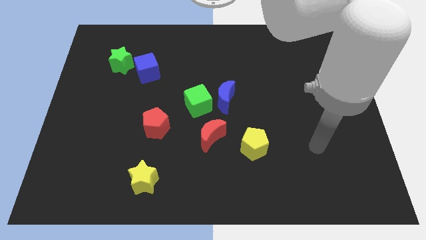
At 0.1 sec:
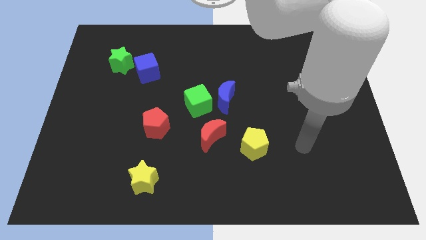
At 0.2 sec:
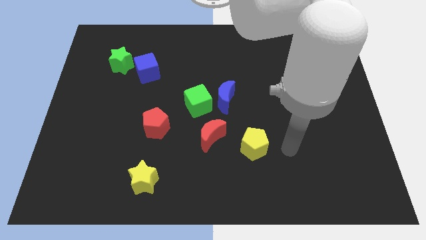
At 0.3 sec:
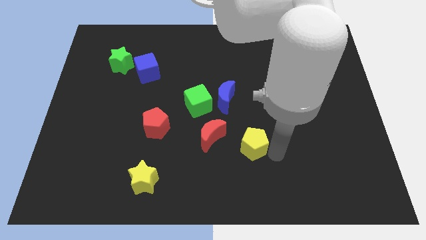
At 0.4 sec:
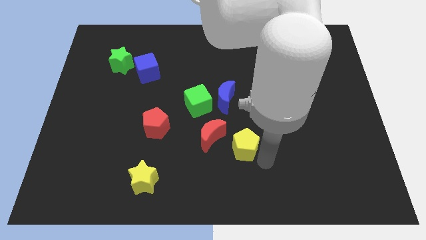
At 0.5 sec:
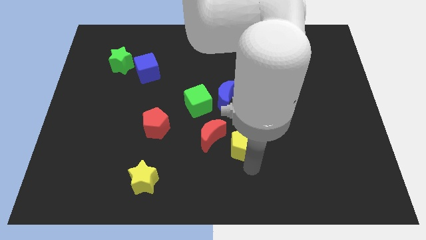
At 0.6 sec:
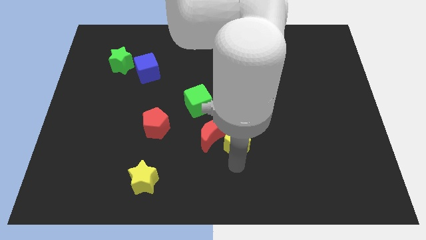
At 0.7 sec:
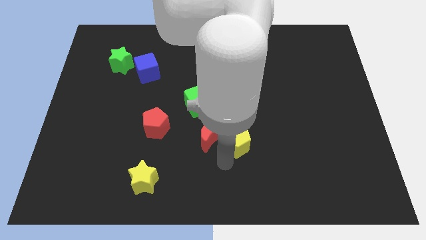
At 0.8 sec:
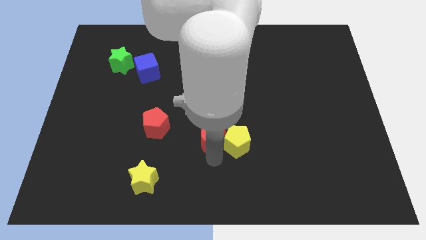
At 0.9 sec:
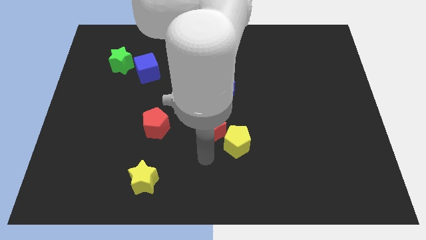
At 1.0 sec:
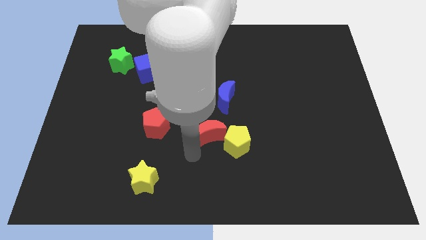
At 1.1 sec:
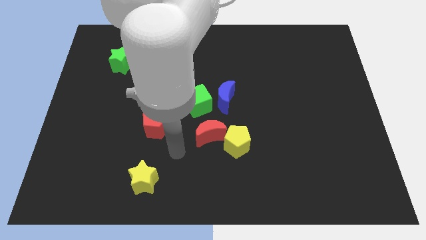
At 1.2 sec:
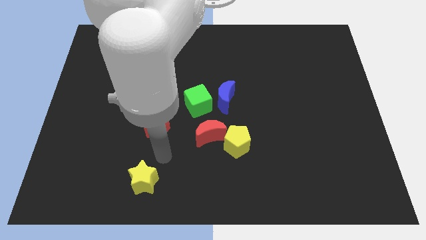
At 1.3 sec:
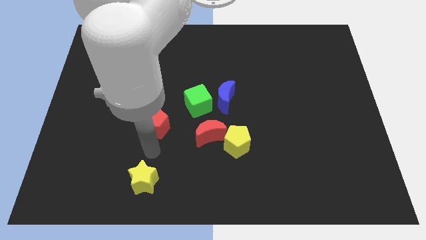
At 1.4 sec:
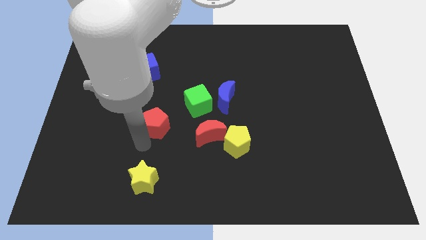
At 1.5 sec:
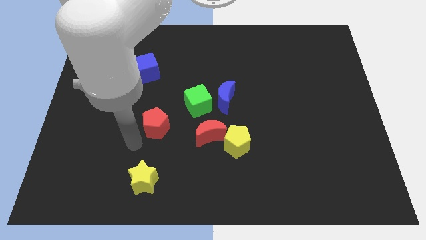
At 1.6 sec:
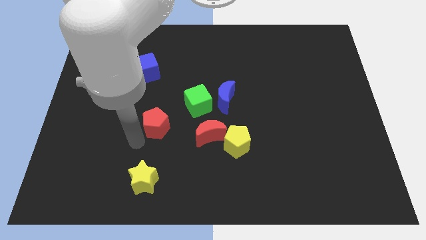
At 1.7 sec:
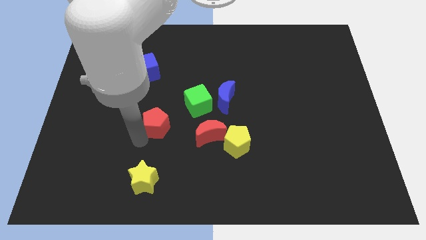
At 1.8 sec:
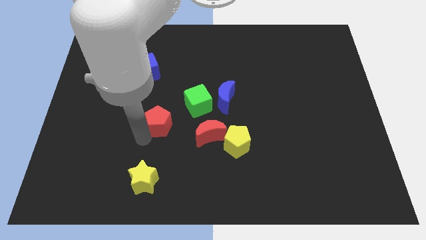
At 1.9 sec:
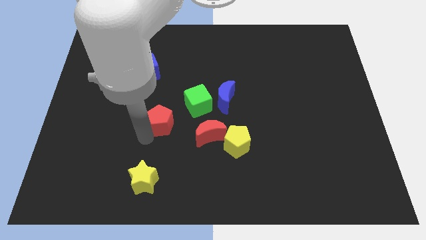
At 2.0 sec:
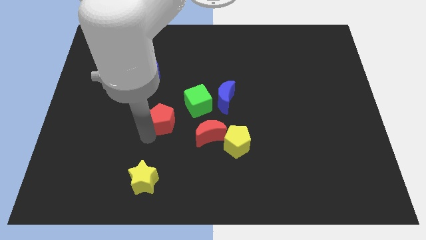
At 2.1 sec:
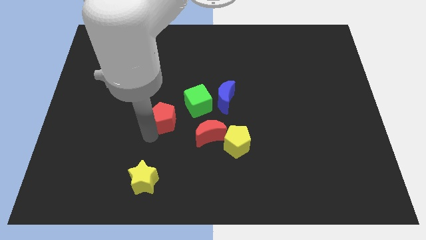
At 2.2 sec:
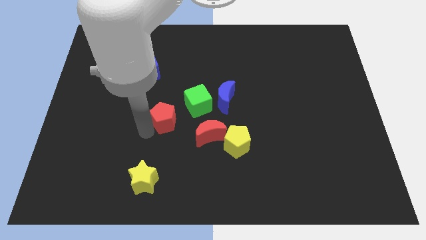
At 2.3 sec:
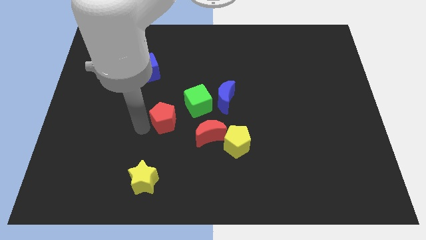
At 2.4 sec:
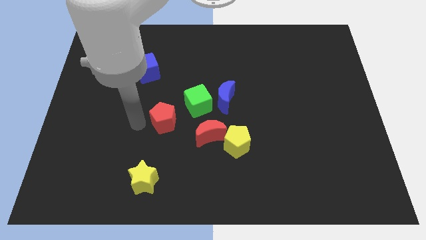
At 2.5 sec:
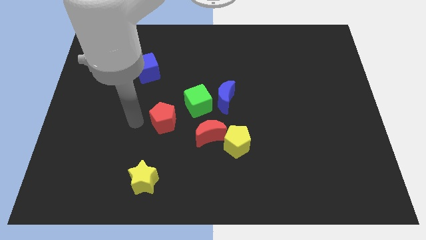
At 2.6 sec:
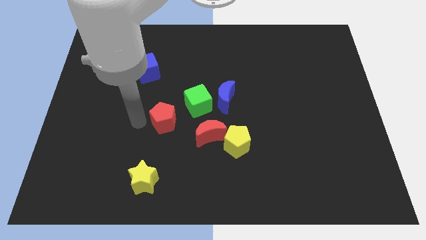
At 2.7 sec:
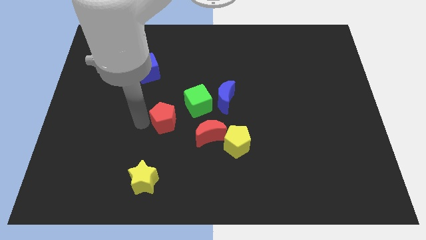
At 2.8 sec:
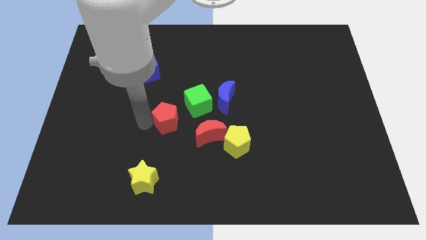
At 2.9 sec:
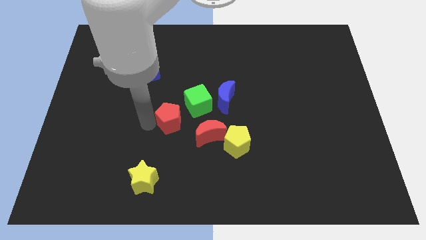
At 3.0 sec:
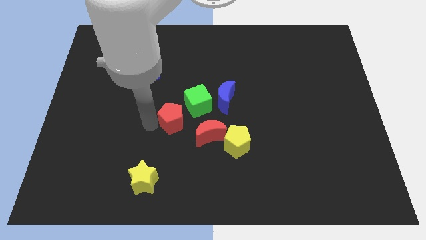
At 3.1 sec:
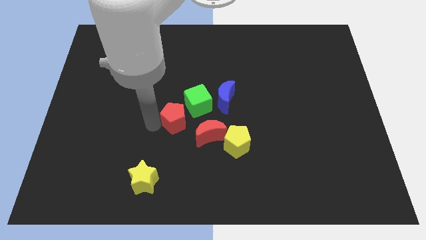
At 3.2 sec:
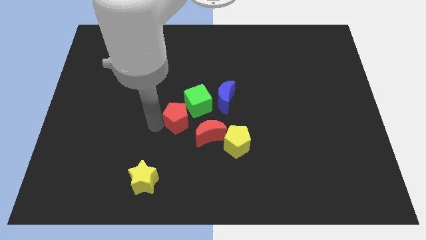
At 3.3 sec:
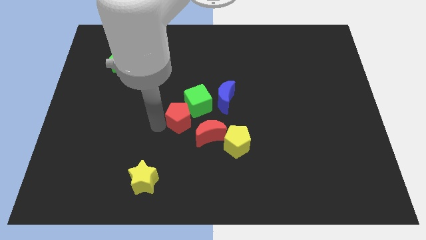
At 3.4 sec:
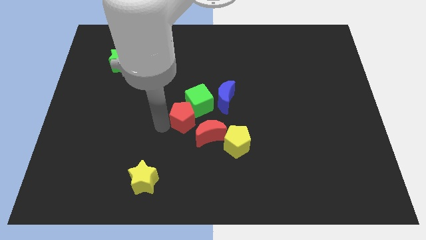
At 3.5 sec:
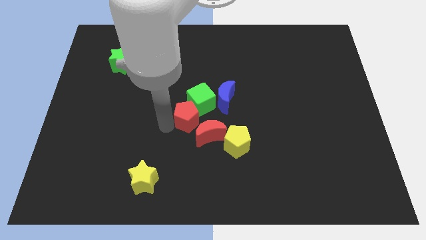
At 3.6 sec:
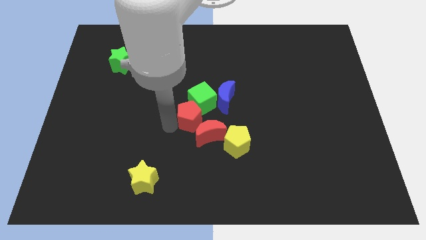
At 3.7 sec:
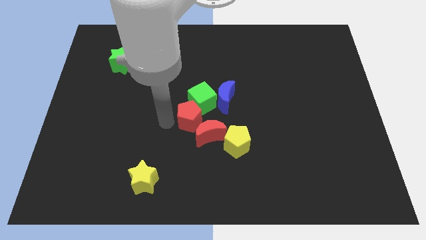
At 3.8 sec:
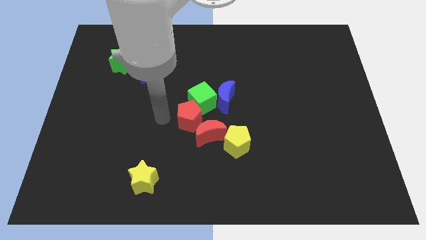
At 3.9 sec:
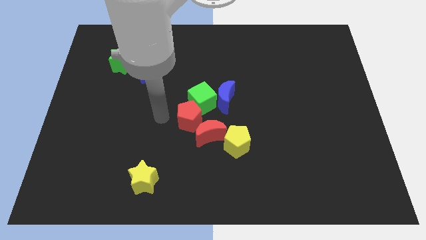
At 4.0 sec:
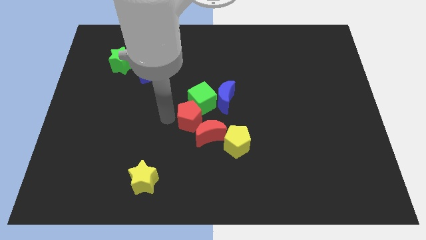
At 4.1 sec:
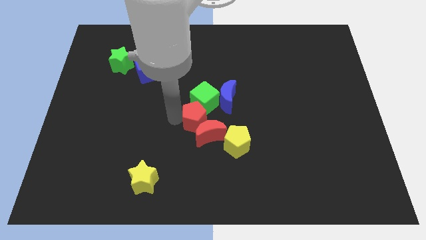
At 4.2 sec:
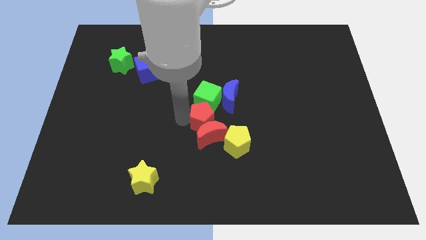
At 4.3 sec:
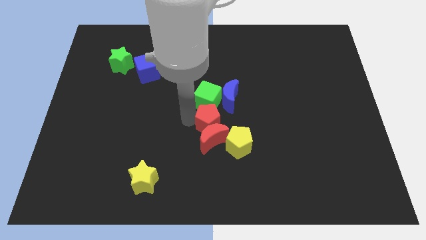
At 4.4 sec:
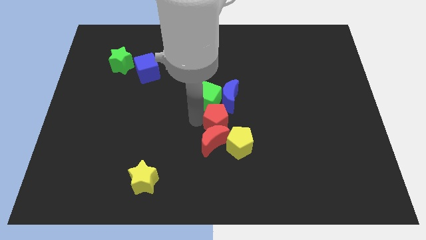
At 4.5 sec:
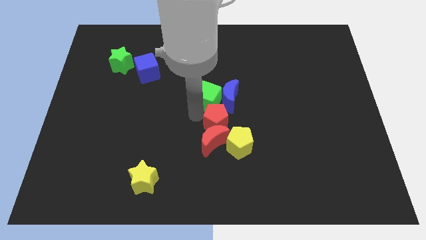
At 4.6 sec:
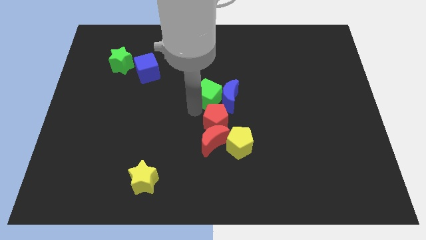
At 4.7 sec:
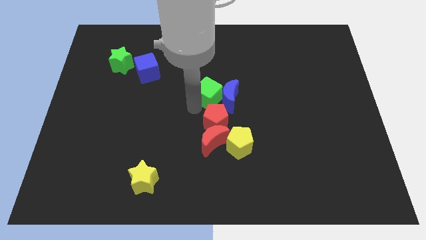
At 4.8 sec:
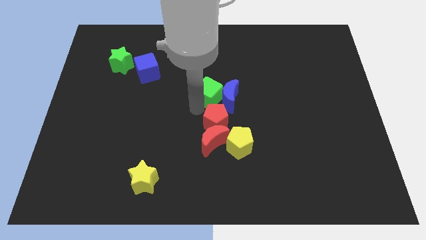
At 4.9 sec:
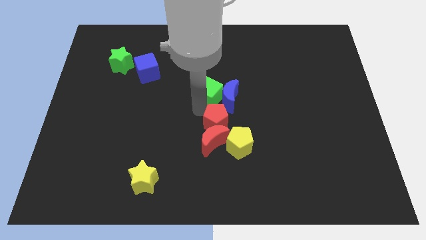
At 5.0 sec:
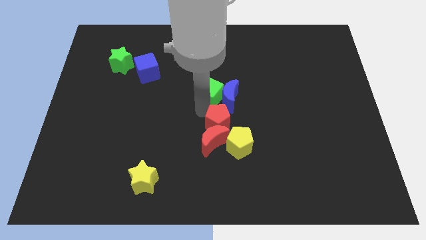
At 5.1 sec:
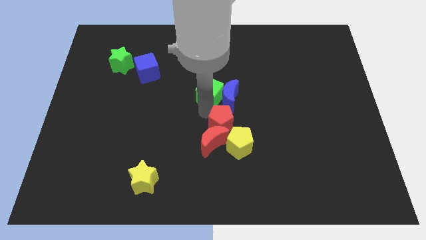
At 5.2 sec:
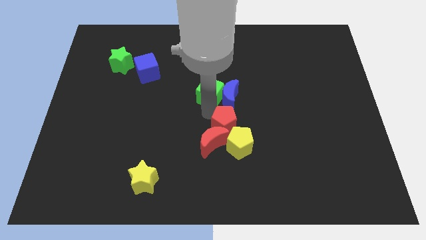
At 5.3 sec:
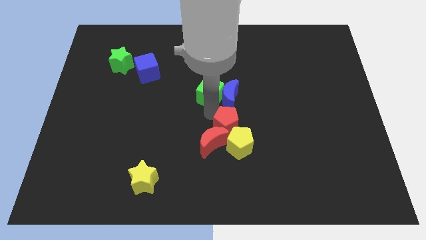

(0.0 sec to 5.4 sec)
move the red pentagon towards the yellow pentagon

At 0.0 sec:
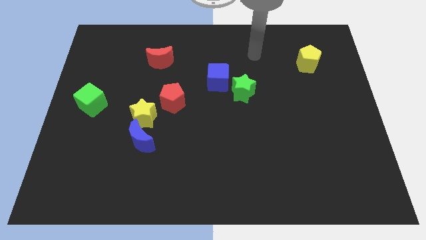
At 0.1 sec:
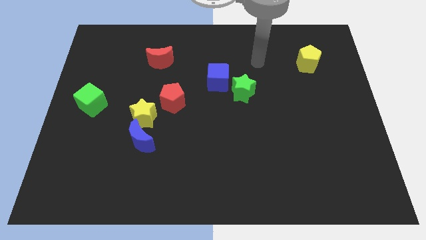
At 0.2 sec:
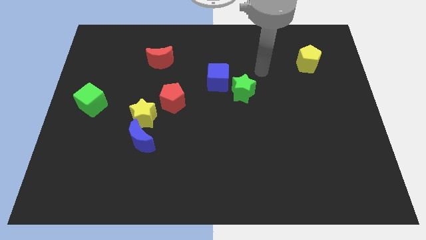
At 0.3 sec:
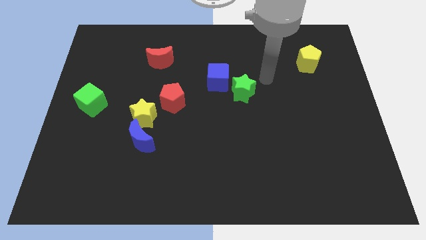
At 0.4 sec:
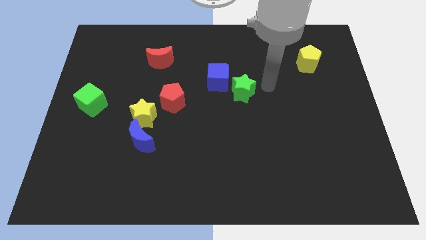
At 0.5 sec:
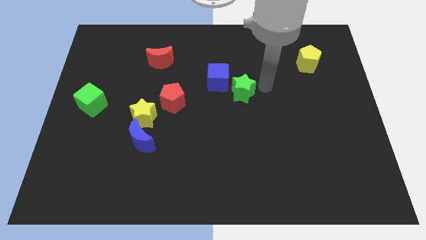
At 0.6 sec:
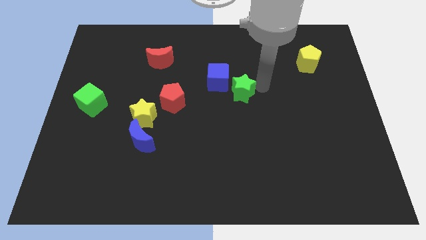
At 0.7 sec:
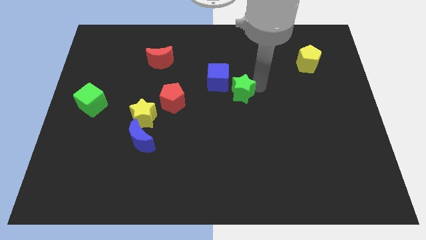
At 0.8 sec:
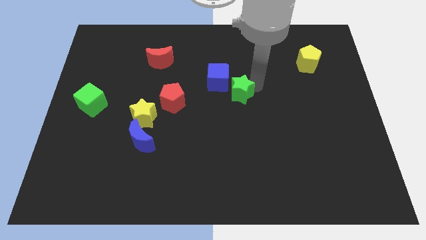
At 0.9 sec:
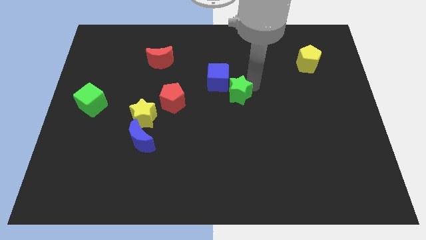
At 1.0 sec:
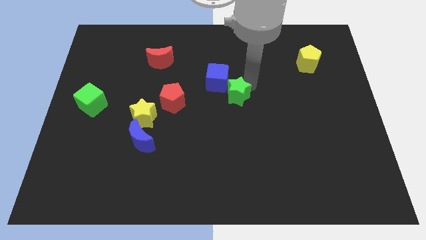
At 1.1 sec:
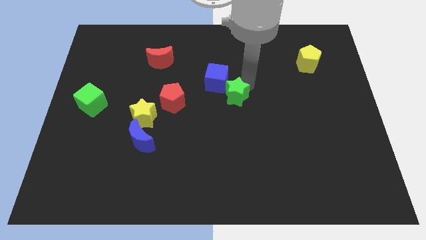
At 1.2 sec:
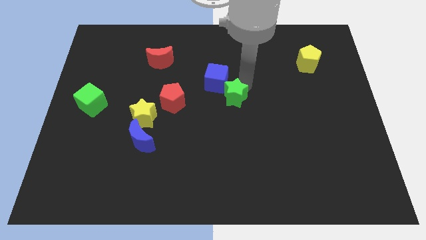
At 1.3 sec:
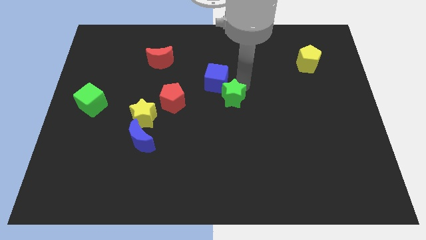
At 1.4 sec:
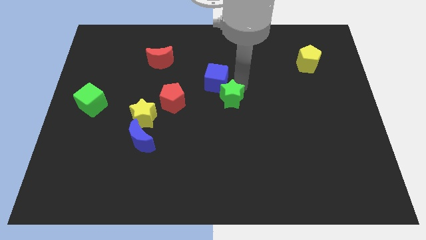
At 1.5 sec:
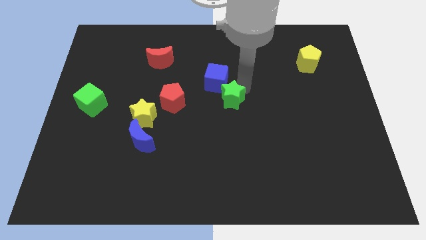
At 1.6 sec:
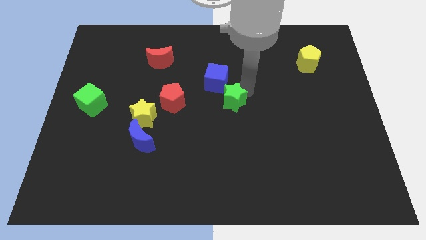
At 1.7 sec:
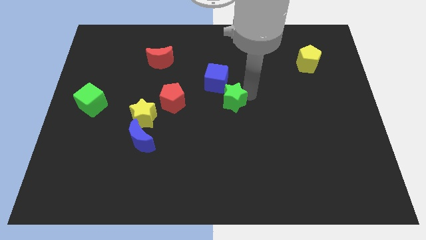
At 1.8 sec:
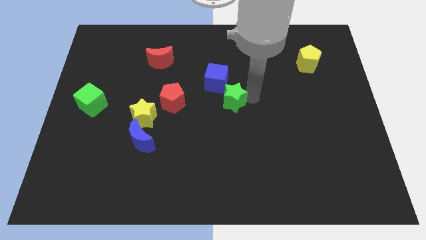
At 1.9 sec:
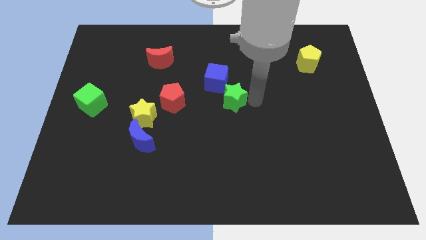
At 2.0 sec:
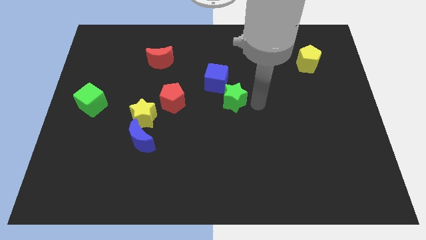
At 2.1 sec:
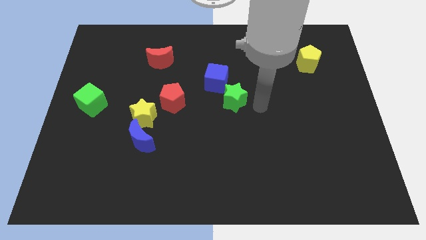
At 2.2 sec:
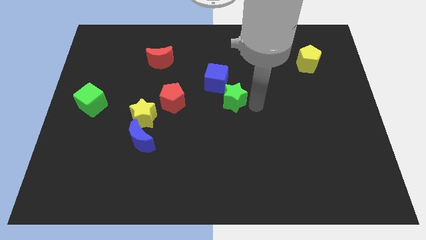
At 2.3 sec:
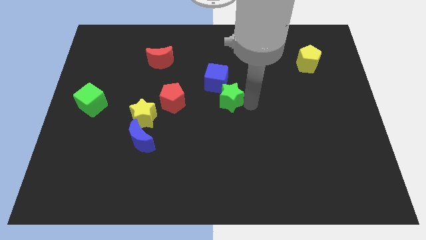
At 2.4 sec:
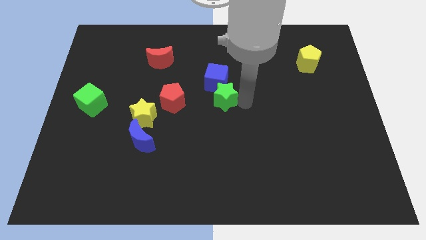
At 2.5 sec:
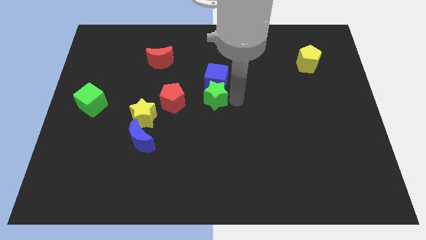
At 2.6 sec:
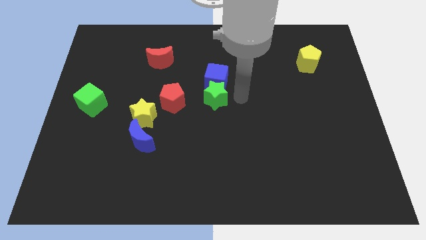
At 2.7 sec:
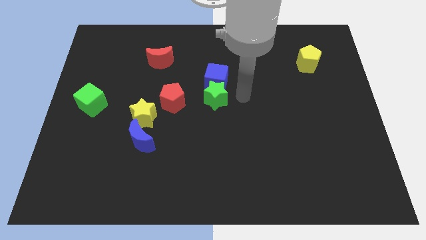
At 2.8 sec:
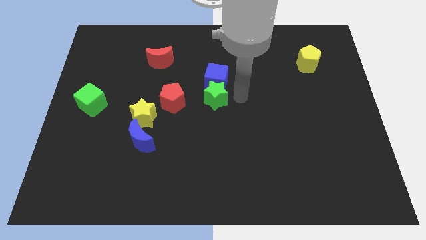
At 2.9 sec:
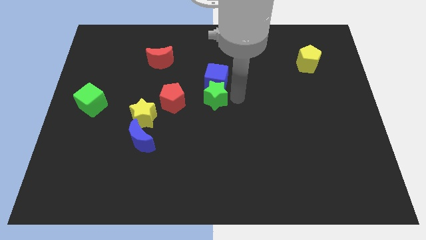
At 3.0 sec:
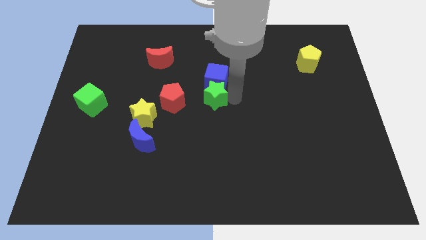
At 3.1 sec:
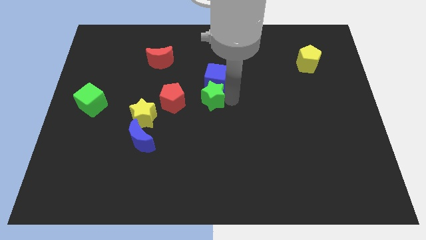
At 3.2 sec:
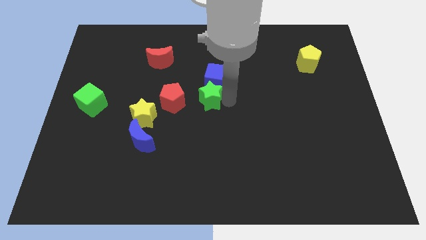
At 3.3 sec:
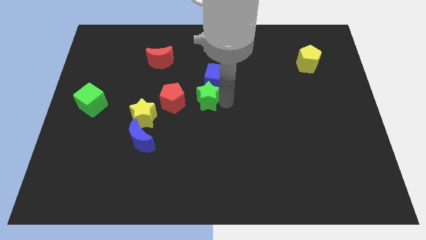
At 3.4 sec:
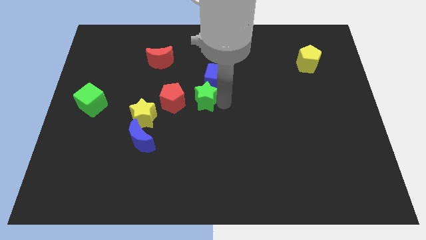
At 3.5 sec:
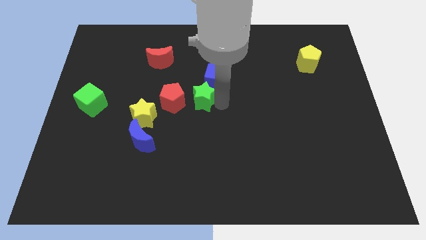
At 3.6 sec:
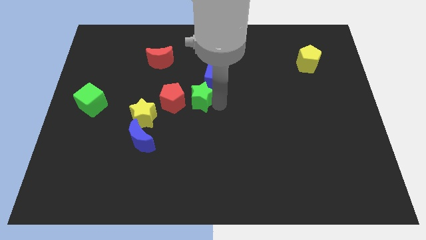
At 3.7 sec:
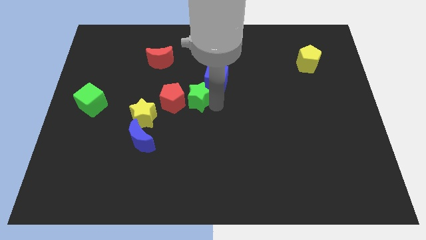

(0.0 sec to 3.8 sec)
put the green star next to the red pentagon
